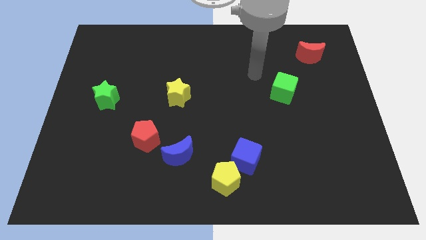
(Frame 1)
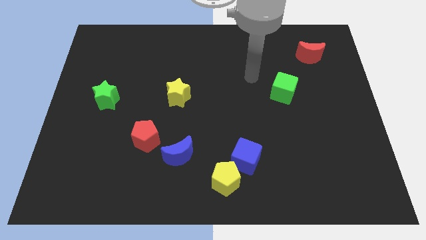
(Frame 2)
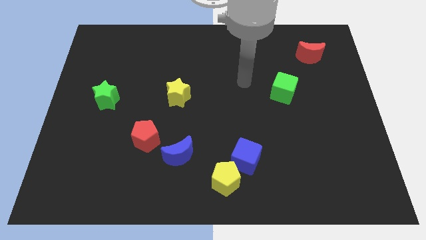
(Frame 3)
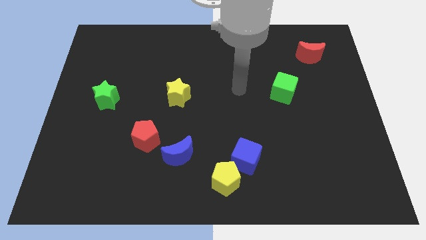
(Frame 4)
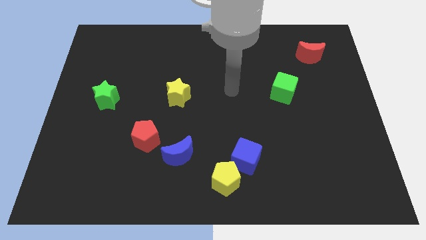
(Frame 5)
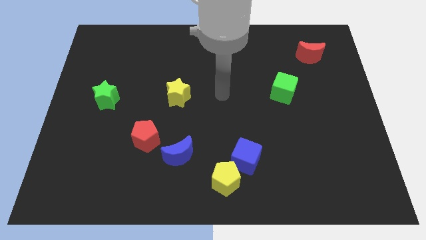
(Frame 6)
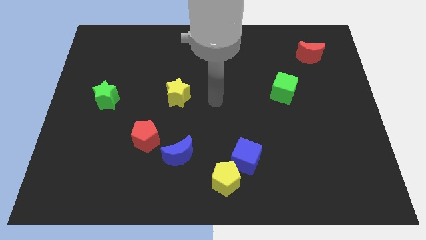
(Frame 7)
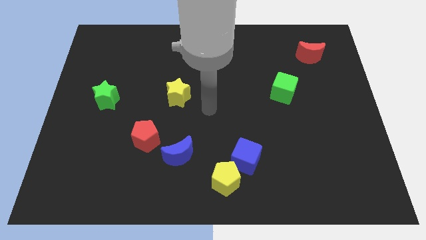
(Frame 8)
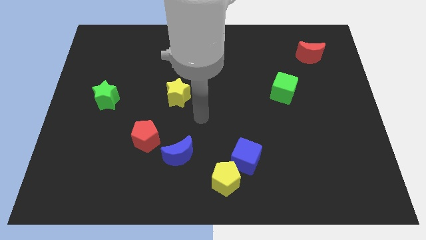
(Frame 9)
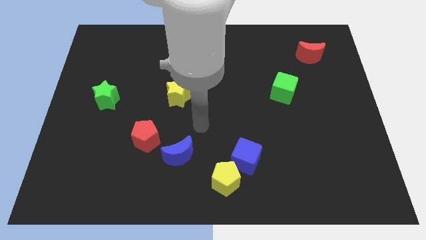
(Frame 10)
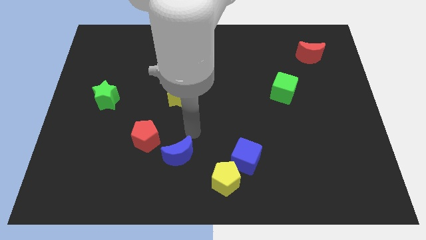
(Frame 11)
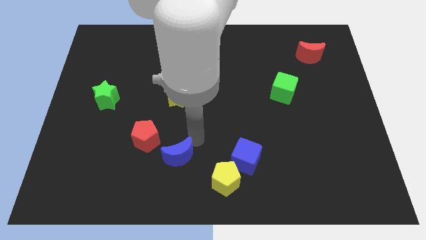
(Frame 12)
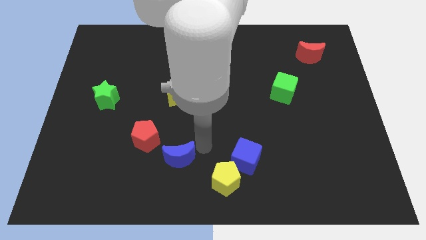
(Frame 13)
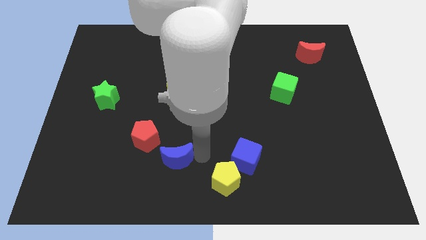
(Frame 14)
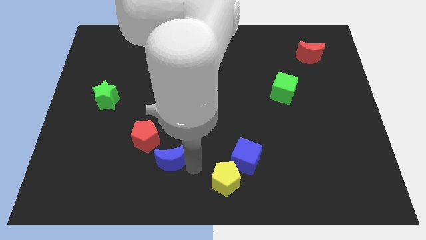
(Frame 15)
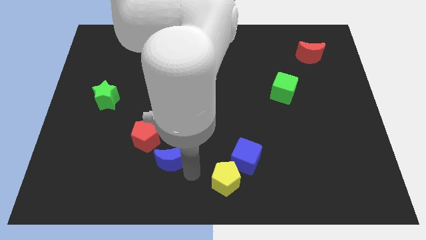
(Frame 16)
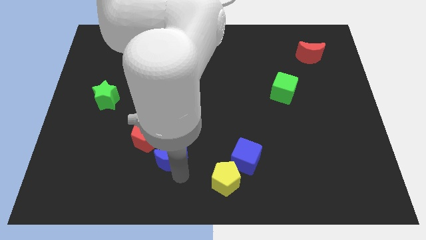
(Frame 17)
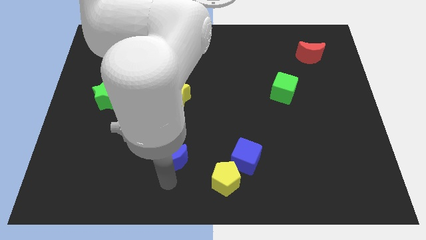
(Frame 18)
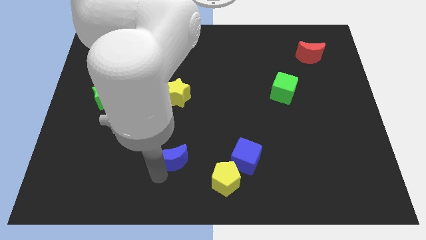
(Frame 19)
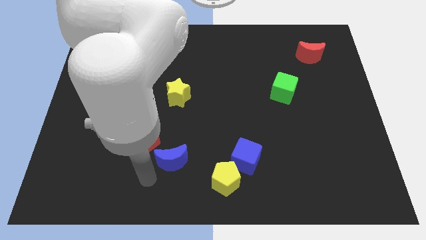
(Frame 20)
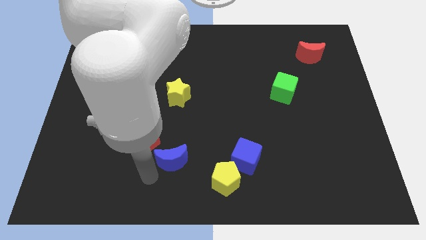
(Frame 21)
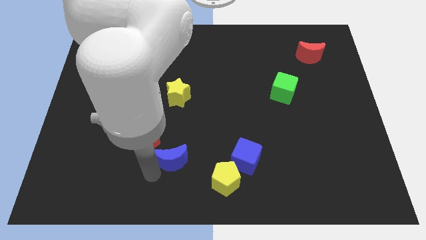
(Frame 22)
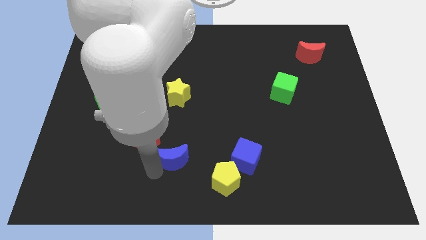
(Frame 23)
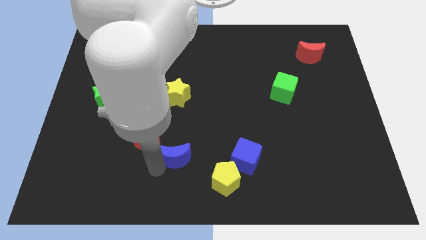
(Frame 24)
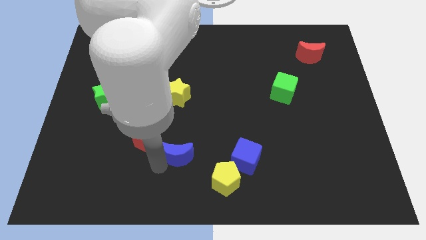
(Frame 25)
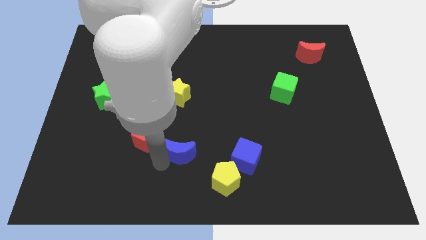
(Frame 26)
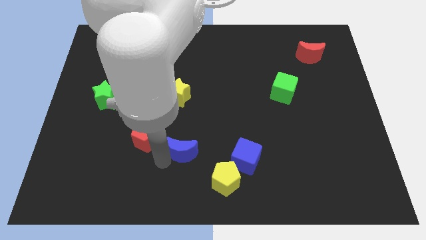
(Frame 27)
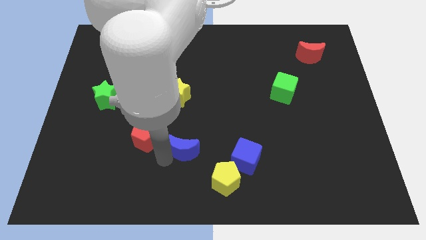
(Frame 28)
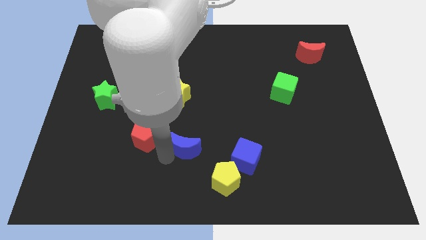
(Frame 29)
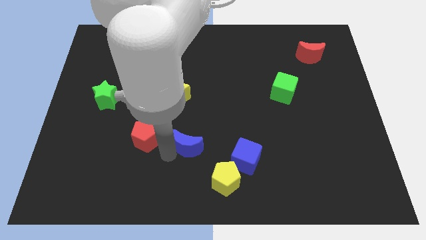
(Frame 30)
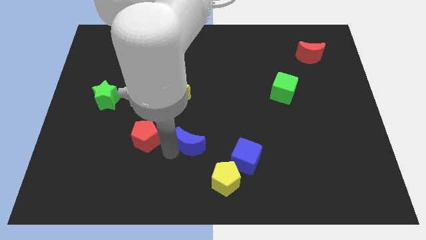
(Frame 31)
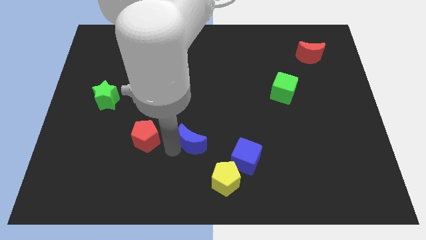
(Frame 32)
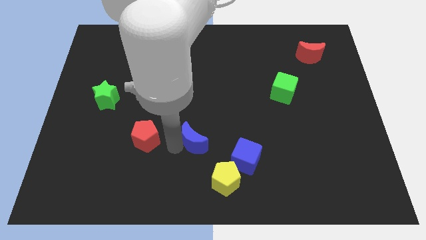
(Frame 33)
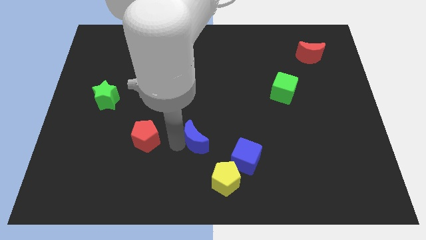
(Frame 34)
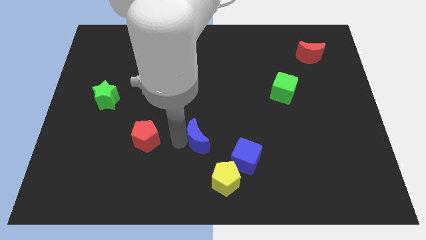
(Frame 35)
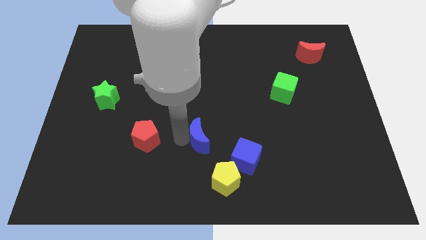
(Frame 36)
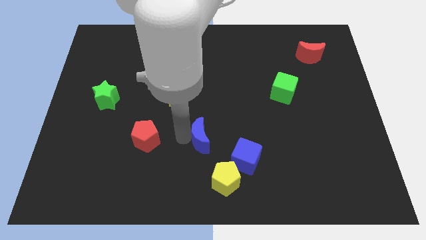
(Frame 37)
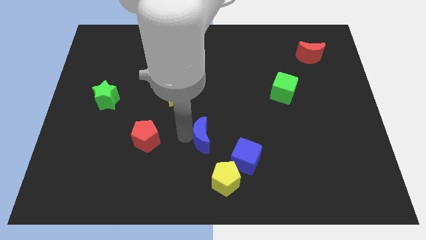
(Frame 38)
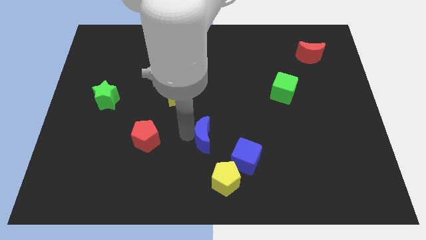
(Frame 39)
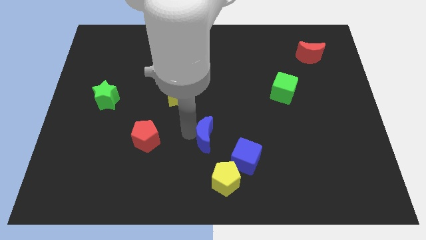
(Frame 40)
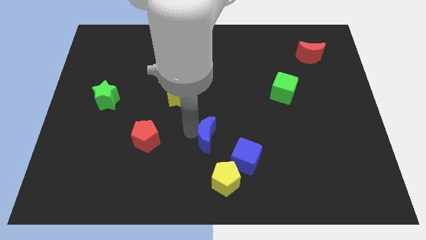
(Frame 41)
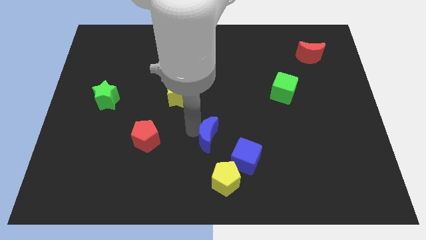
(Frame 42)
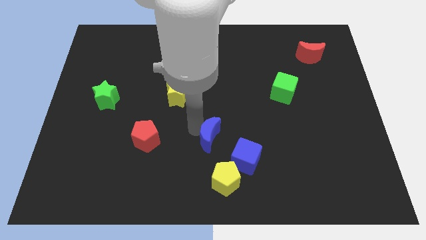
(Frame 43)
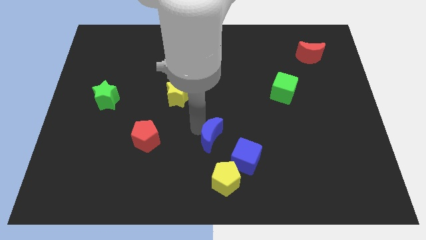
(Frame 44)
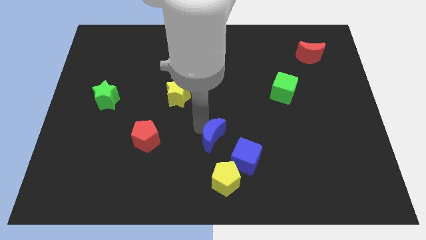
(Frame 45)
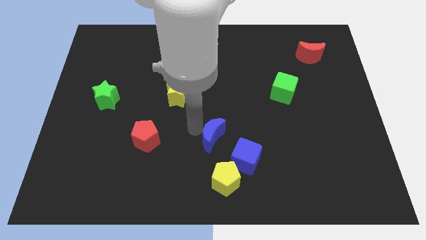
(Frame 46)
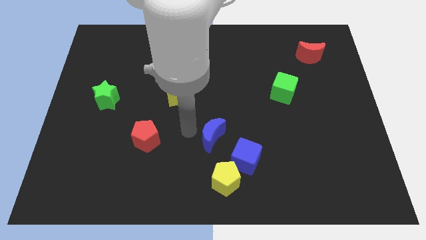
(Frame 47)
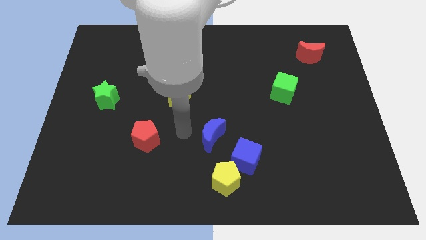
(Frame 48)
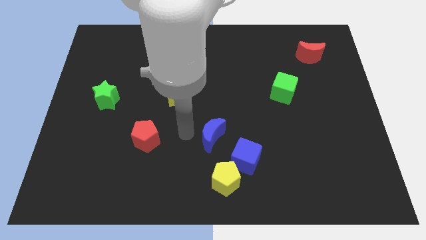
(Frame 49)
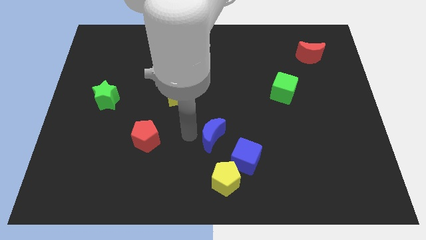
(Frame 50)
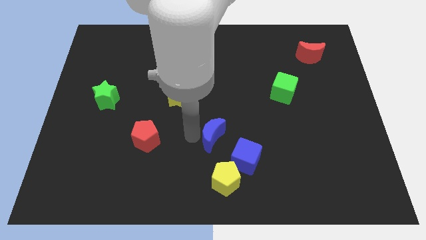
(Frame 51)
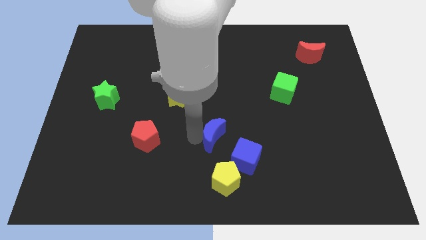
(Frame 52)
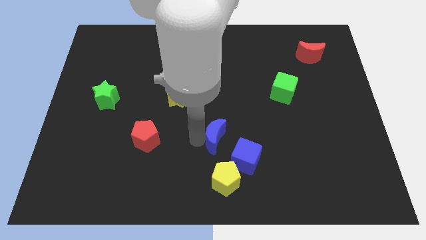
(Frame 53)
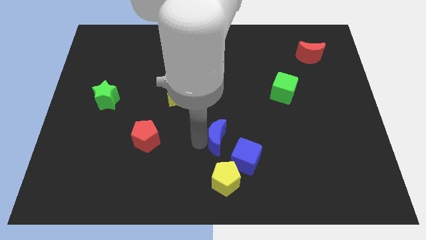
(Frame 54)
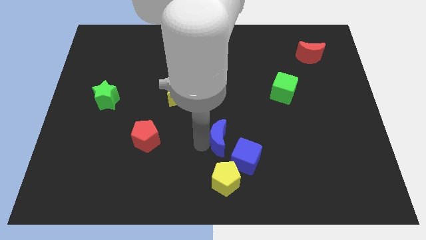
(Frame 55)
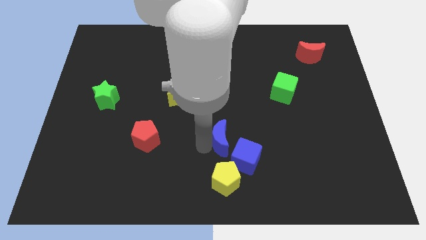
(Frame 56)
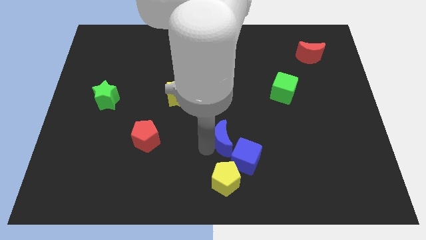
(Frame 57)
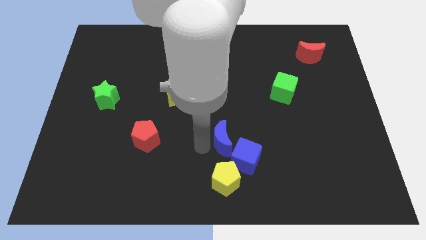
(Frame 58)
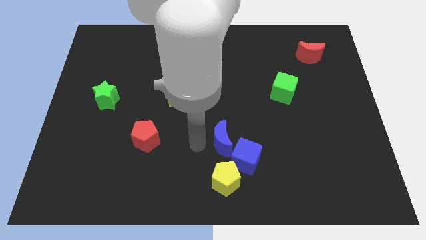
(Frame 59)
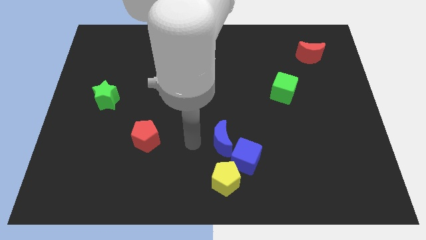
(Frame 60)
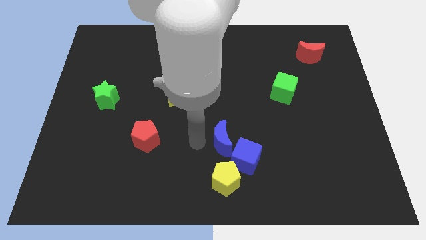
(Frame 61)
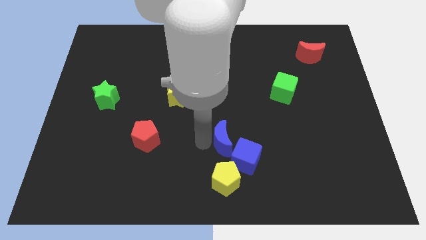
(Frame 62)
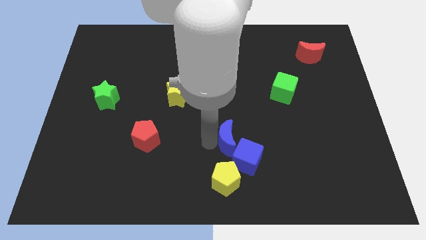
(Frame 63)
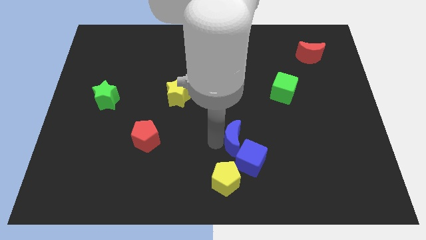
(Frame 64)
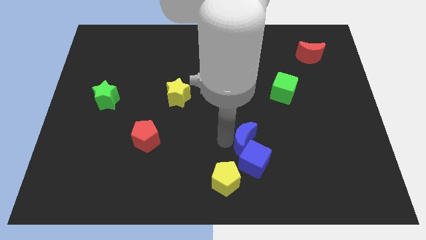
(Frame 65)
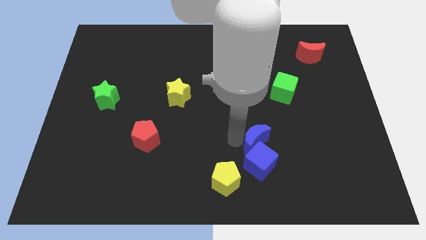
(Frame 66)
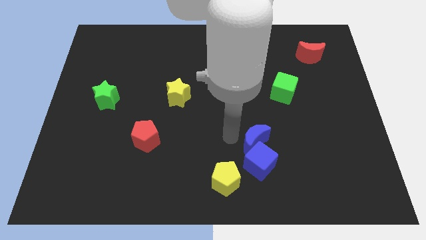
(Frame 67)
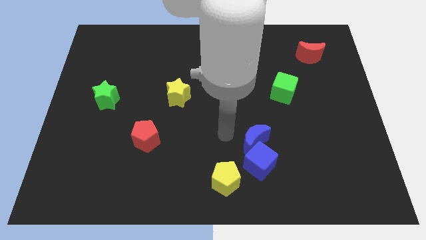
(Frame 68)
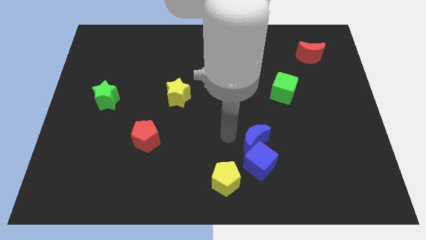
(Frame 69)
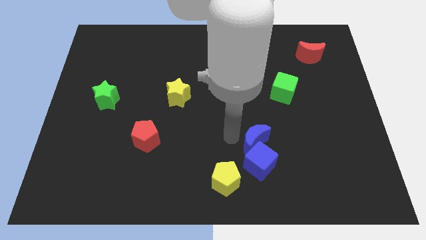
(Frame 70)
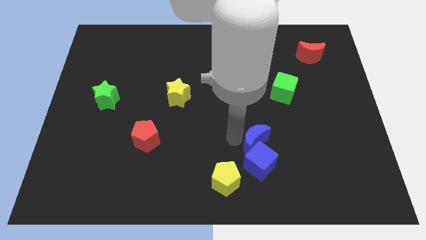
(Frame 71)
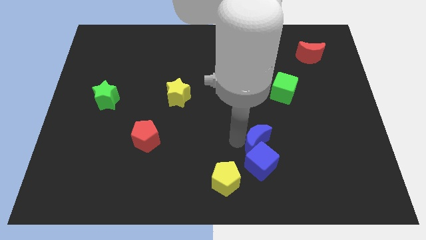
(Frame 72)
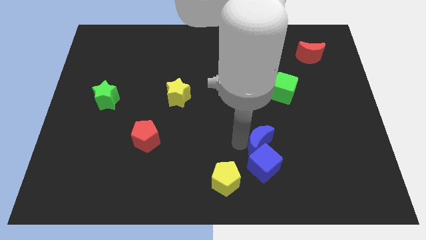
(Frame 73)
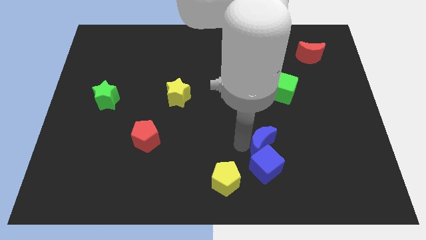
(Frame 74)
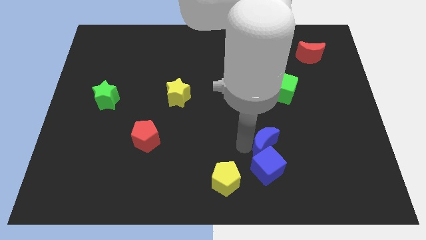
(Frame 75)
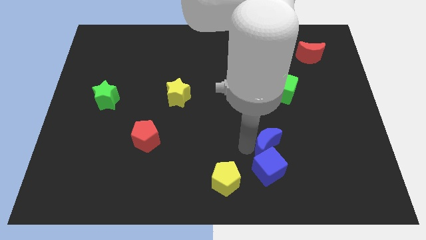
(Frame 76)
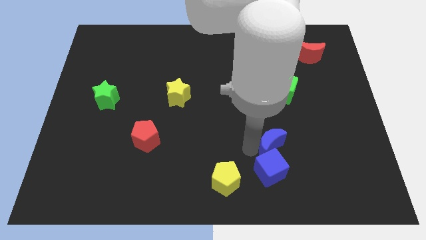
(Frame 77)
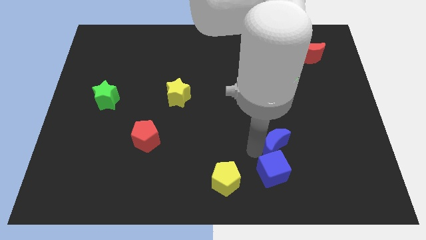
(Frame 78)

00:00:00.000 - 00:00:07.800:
slide the blue moon right

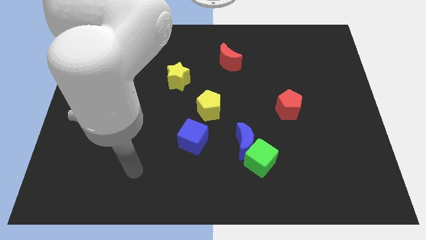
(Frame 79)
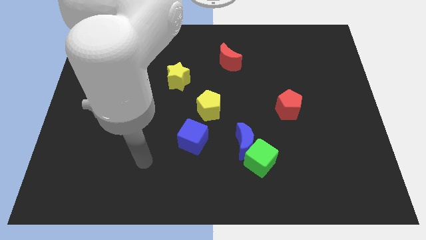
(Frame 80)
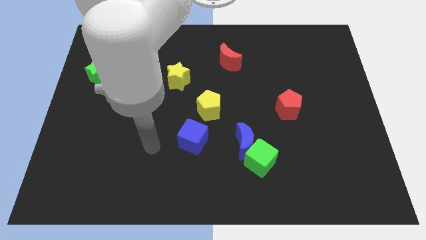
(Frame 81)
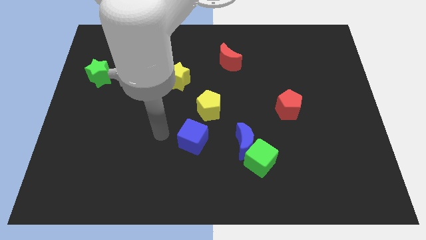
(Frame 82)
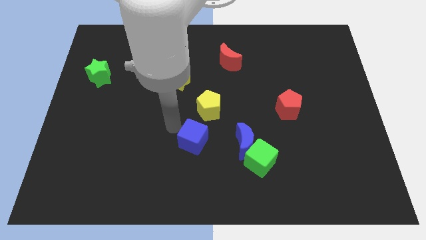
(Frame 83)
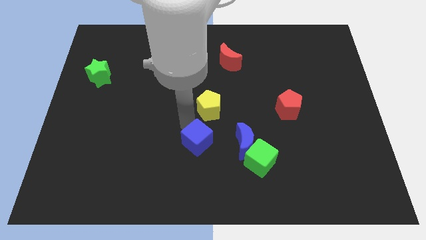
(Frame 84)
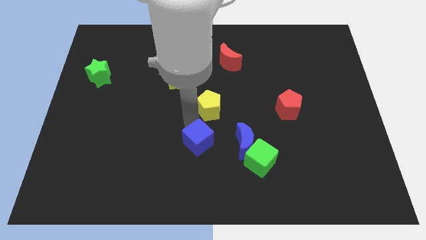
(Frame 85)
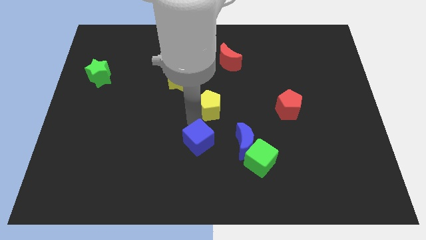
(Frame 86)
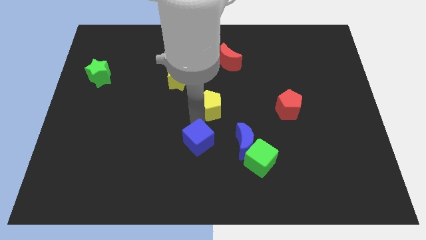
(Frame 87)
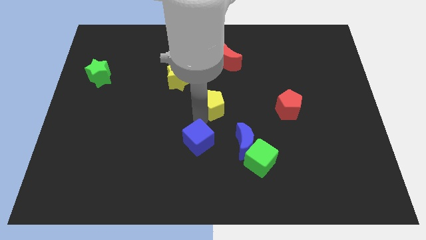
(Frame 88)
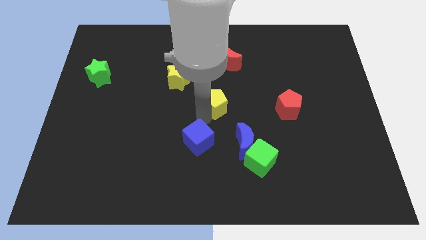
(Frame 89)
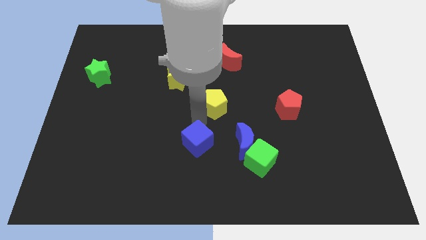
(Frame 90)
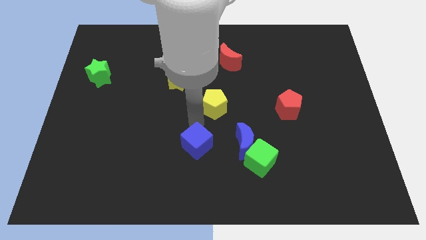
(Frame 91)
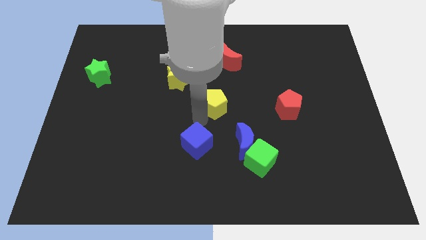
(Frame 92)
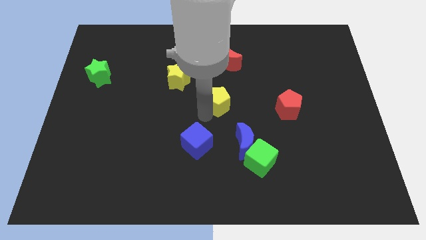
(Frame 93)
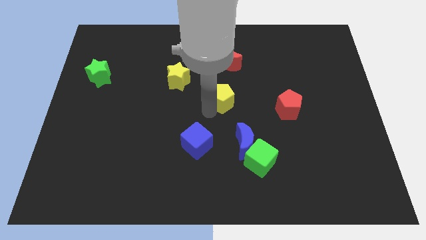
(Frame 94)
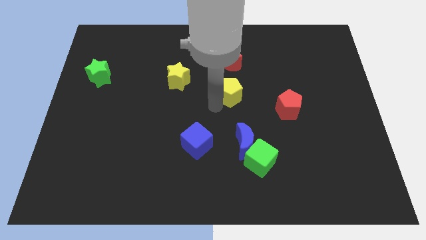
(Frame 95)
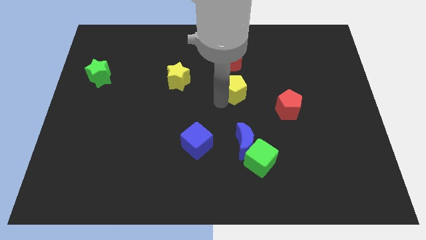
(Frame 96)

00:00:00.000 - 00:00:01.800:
push the yellow pentagon somewhat diagonally upwards and to the right
